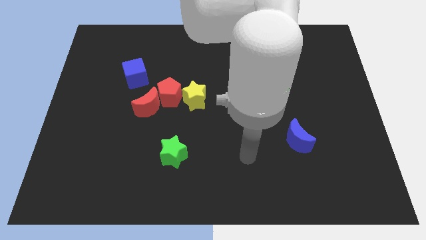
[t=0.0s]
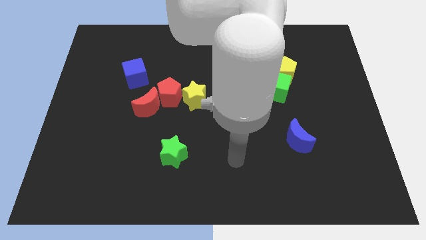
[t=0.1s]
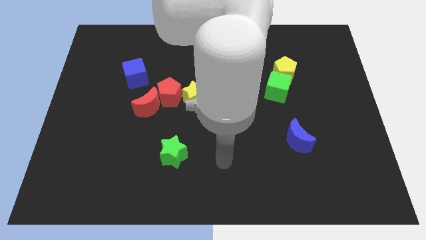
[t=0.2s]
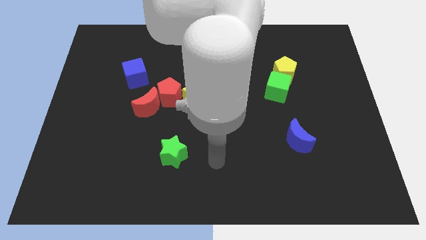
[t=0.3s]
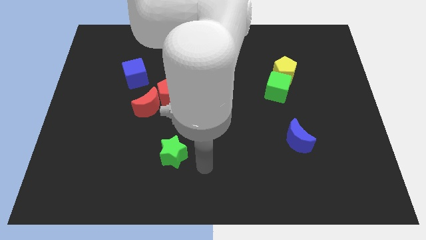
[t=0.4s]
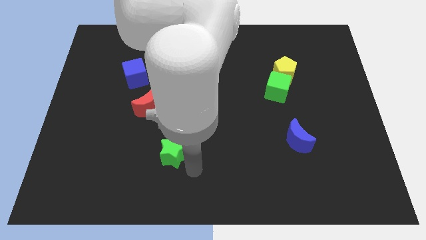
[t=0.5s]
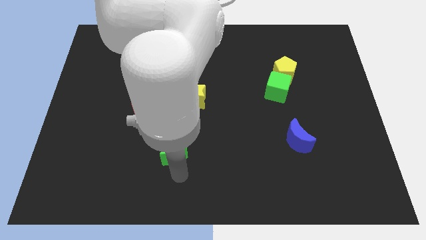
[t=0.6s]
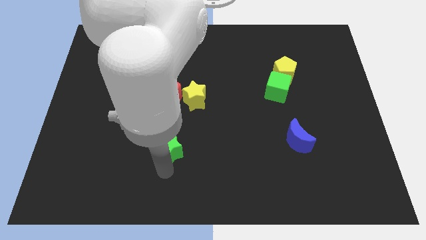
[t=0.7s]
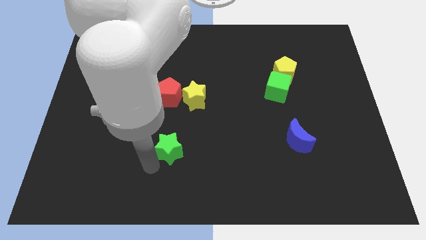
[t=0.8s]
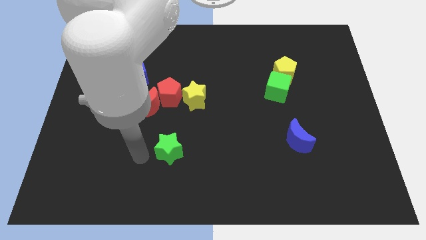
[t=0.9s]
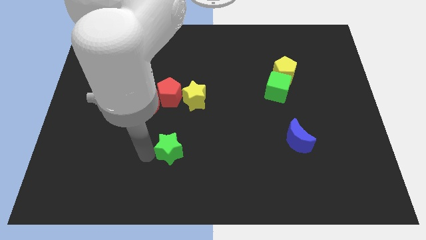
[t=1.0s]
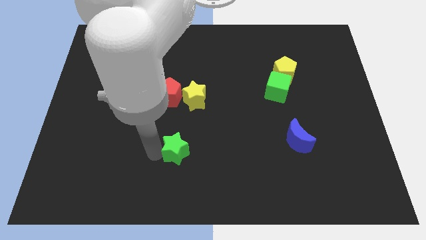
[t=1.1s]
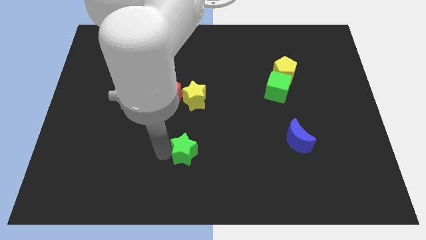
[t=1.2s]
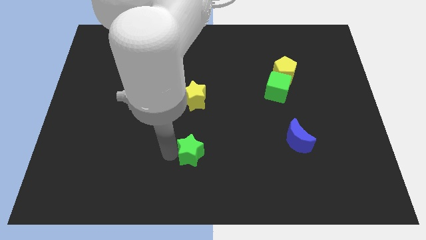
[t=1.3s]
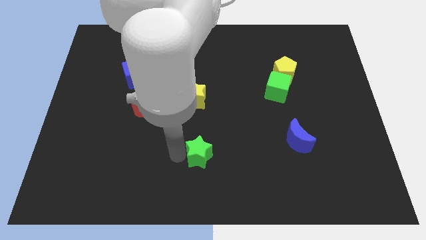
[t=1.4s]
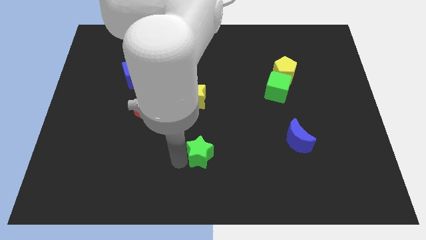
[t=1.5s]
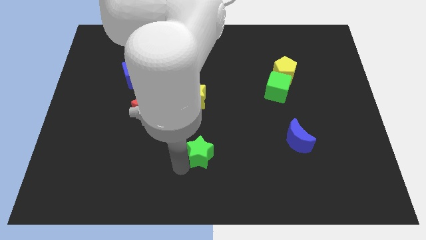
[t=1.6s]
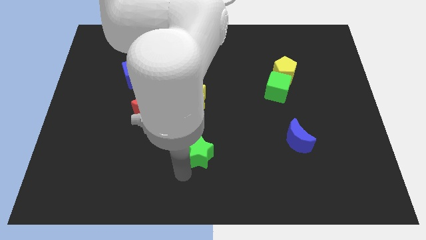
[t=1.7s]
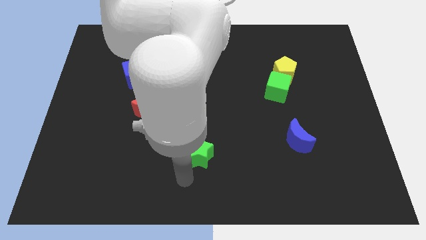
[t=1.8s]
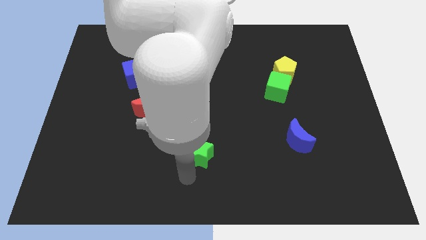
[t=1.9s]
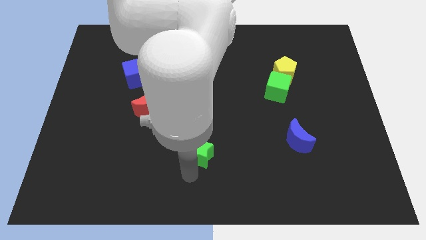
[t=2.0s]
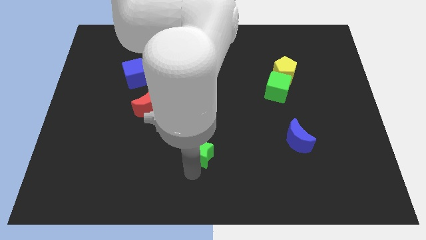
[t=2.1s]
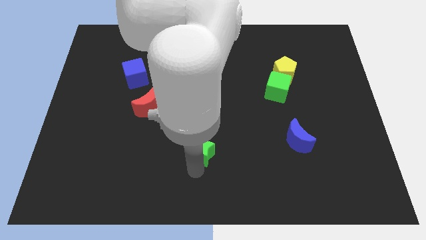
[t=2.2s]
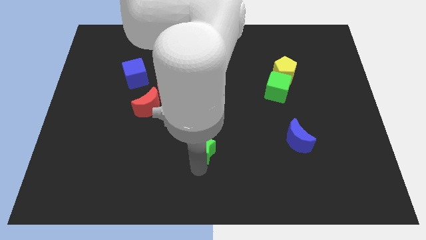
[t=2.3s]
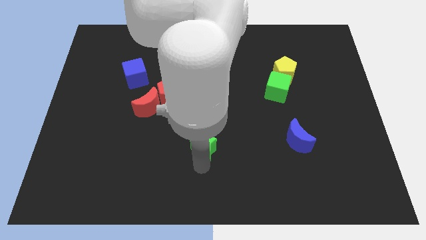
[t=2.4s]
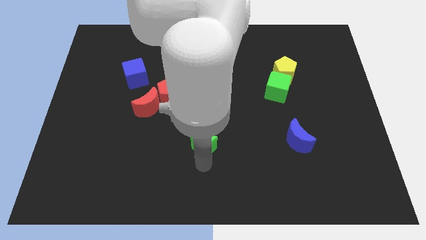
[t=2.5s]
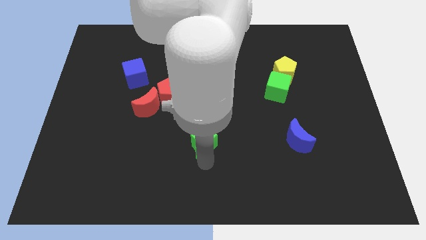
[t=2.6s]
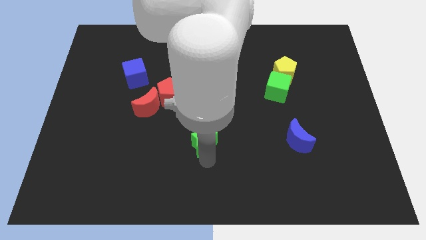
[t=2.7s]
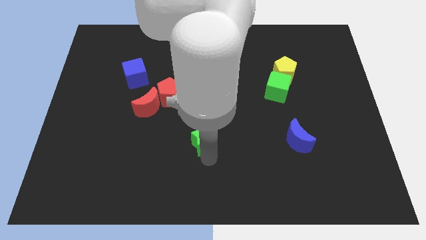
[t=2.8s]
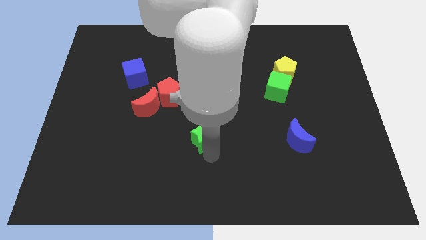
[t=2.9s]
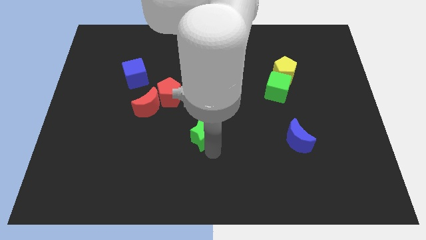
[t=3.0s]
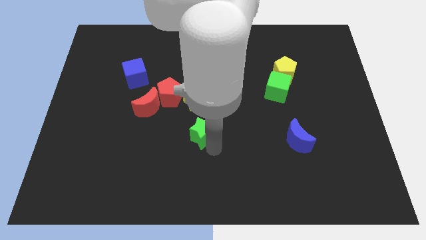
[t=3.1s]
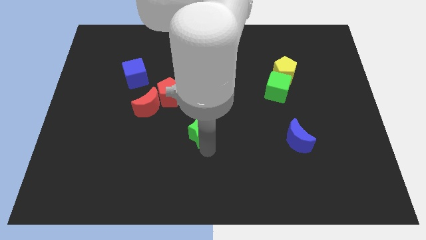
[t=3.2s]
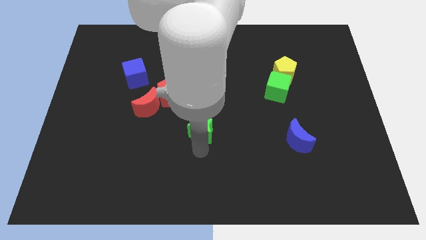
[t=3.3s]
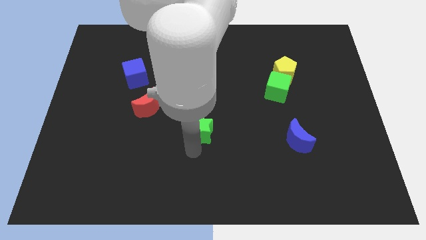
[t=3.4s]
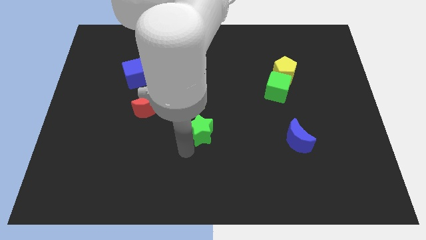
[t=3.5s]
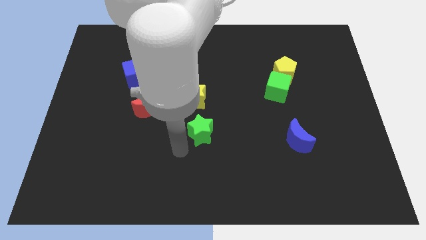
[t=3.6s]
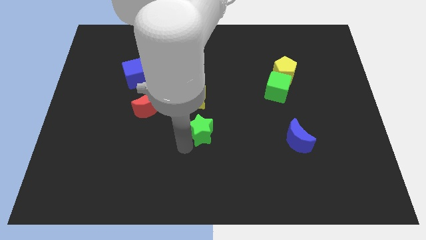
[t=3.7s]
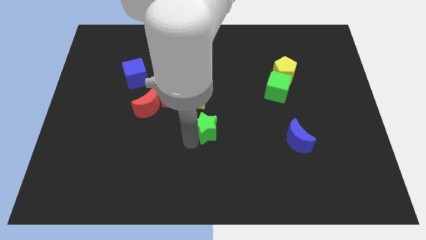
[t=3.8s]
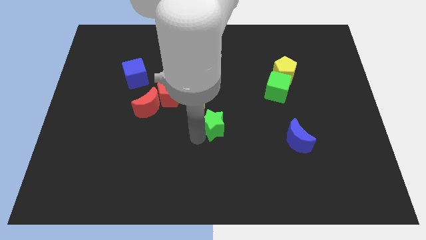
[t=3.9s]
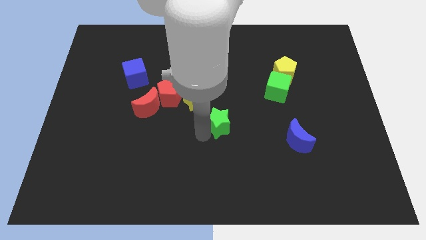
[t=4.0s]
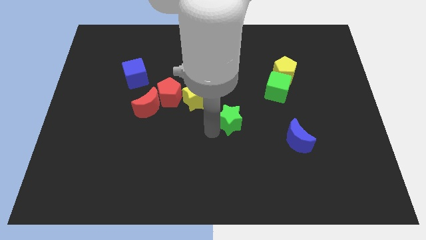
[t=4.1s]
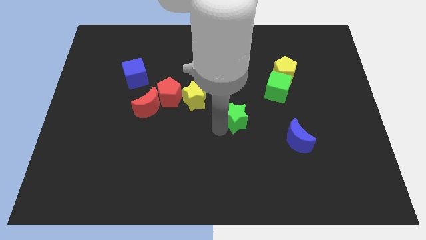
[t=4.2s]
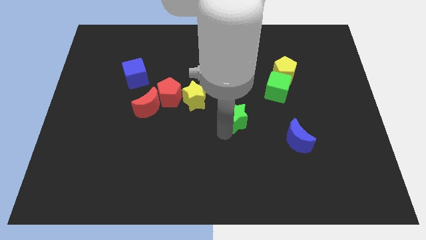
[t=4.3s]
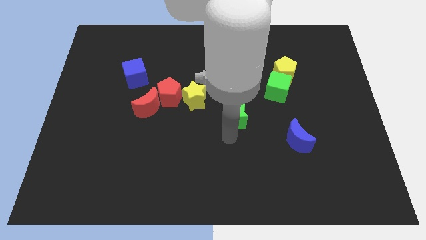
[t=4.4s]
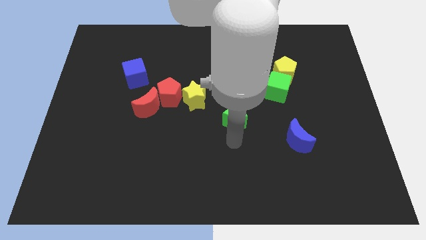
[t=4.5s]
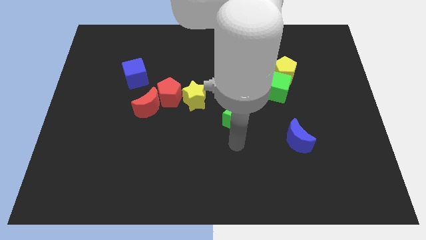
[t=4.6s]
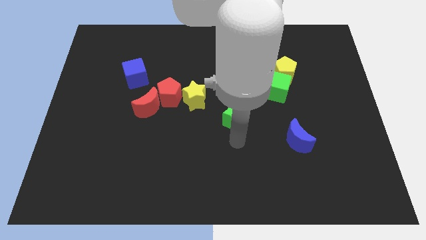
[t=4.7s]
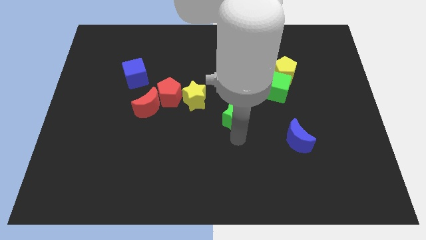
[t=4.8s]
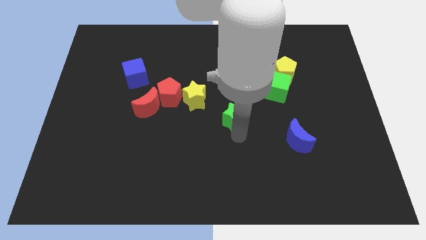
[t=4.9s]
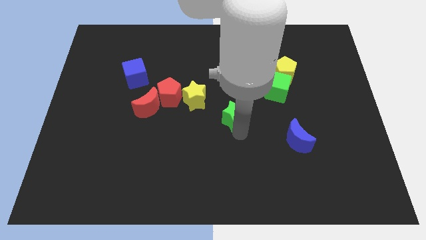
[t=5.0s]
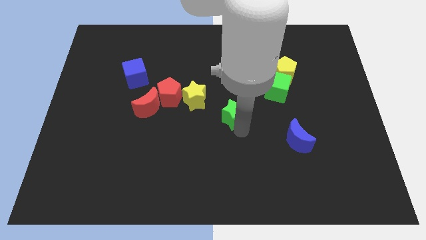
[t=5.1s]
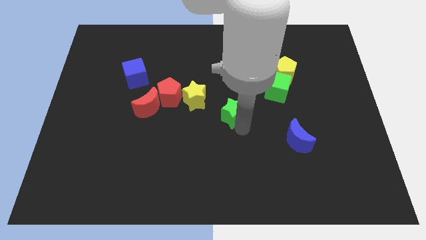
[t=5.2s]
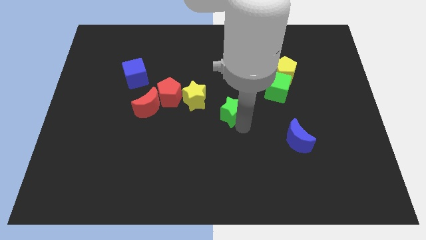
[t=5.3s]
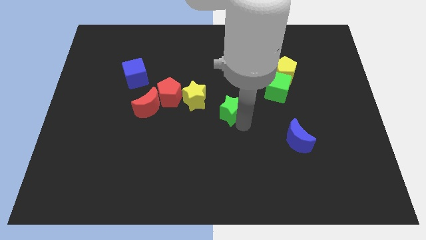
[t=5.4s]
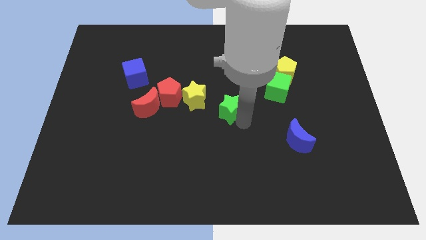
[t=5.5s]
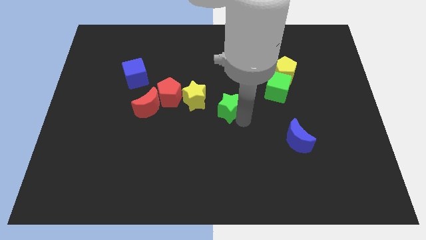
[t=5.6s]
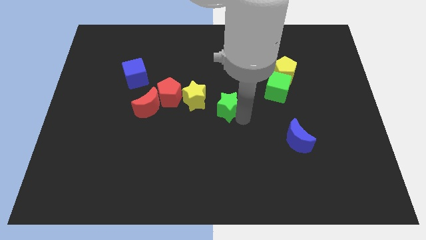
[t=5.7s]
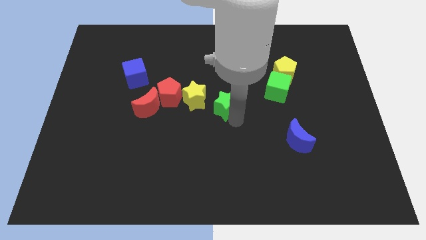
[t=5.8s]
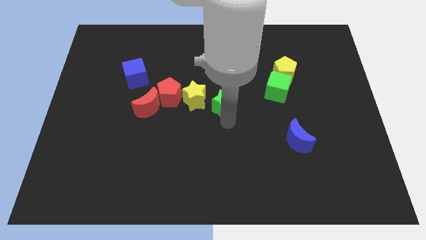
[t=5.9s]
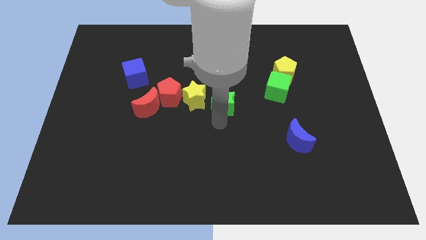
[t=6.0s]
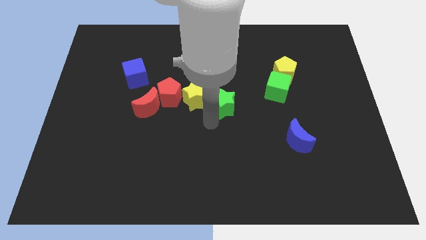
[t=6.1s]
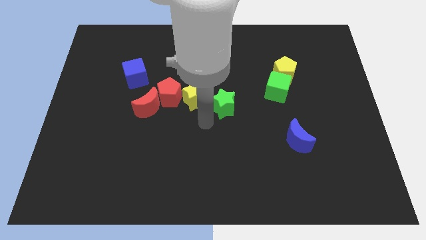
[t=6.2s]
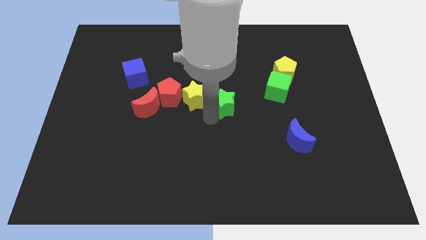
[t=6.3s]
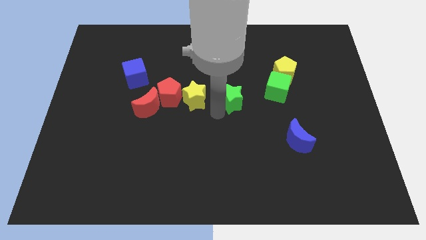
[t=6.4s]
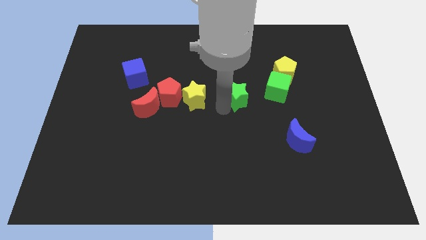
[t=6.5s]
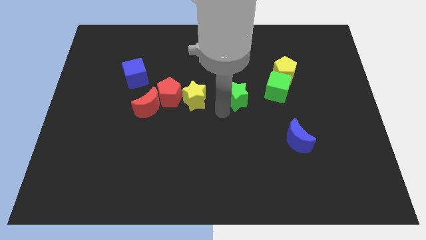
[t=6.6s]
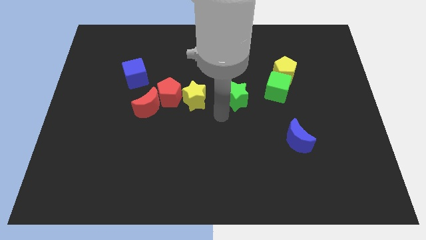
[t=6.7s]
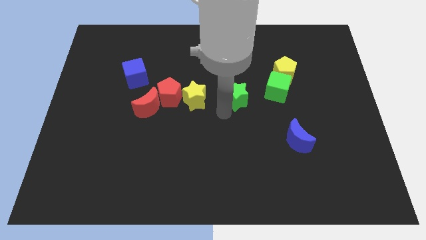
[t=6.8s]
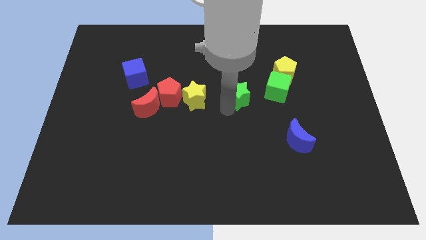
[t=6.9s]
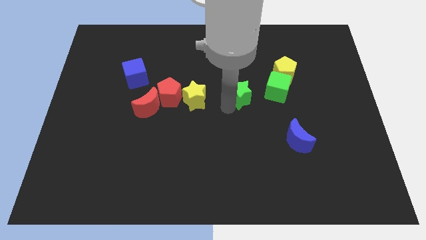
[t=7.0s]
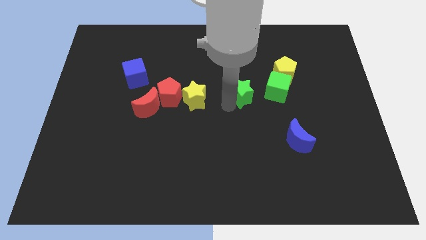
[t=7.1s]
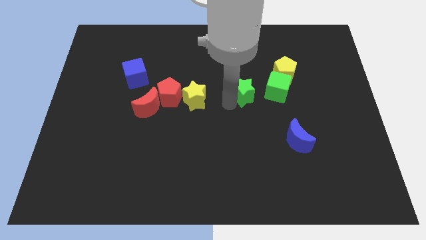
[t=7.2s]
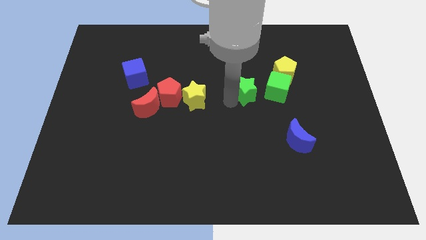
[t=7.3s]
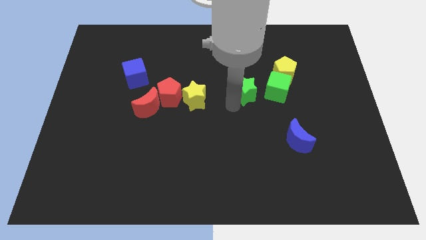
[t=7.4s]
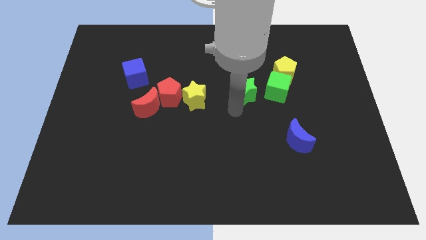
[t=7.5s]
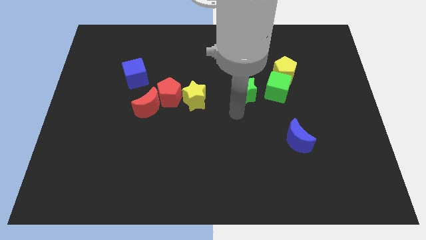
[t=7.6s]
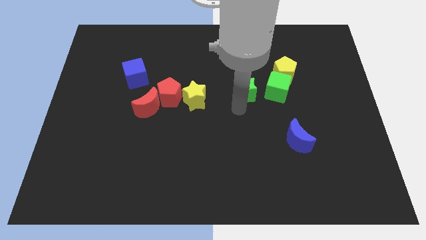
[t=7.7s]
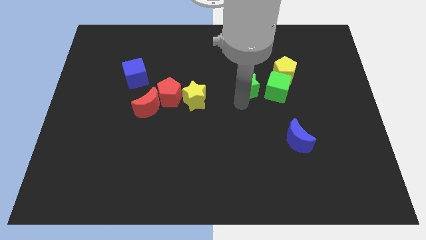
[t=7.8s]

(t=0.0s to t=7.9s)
push the green star to the top left of the green cube
